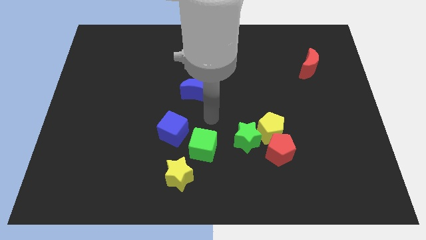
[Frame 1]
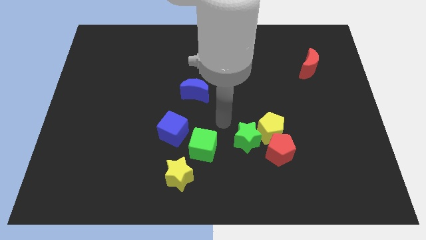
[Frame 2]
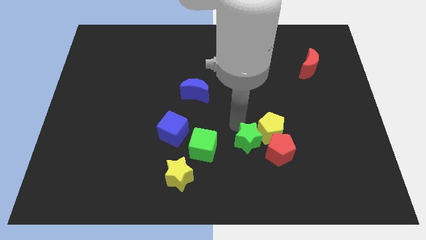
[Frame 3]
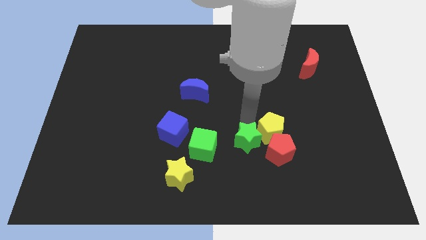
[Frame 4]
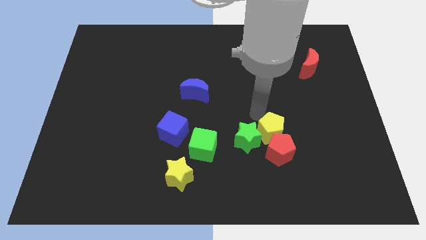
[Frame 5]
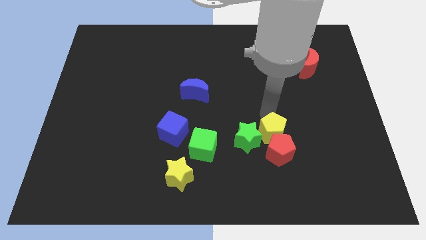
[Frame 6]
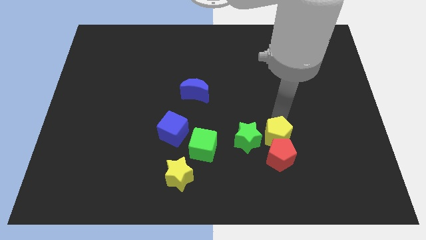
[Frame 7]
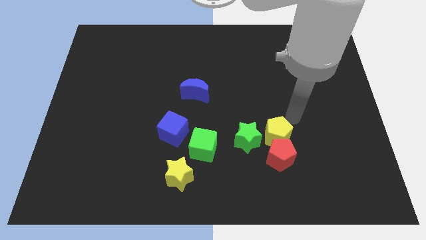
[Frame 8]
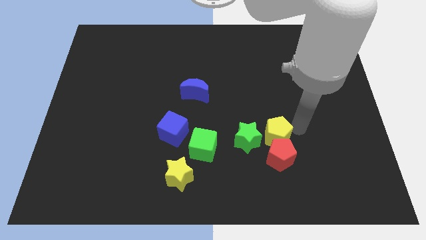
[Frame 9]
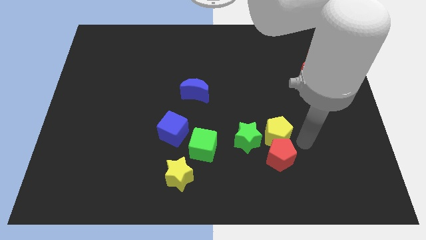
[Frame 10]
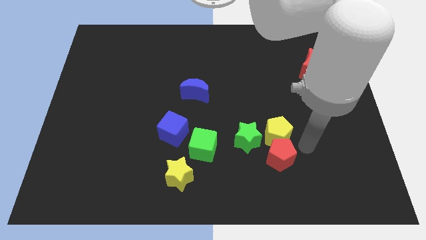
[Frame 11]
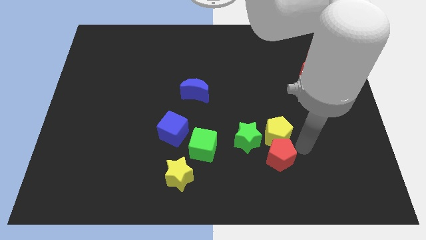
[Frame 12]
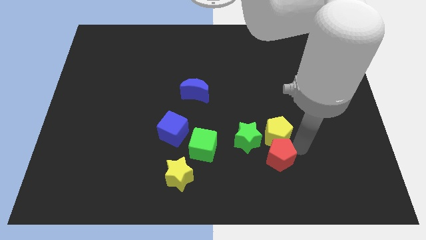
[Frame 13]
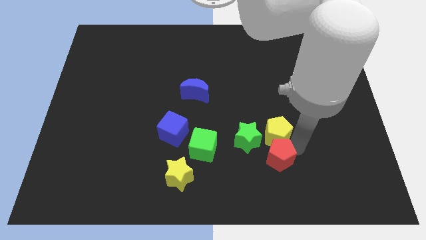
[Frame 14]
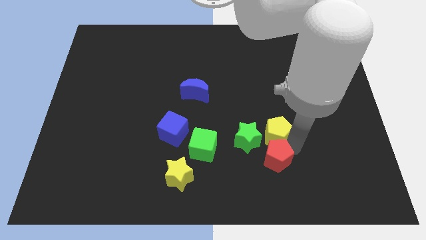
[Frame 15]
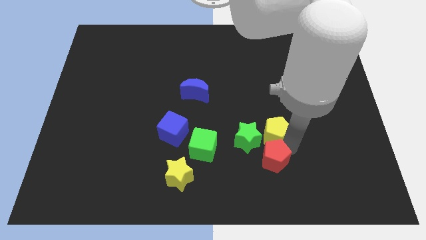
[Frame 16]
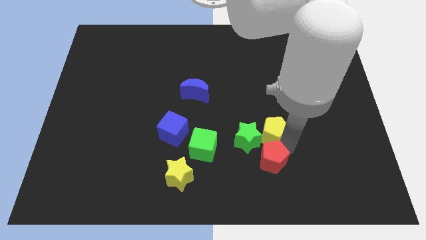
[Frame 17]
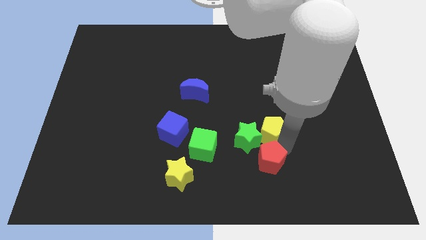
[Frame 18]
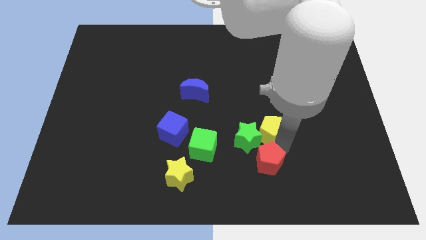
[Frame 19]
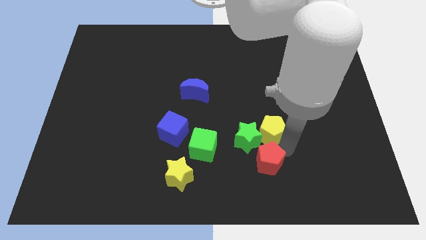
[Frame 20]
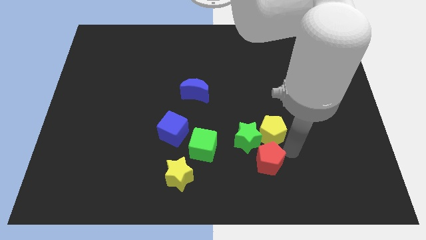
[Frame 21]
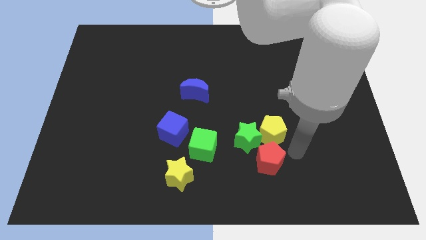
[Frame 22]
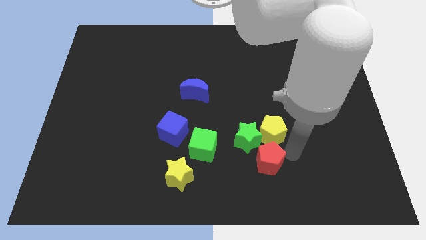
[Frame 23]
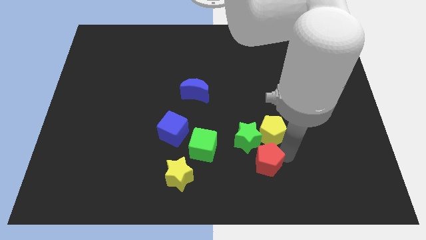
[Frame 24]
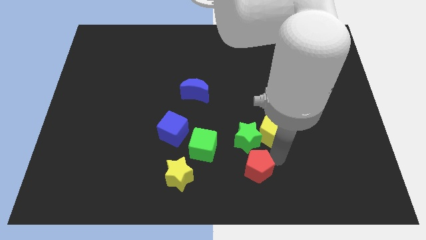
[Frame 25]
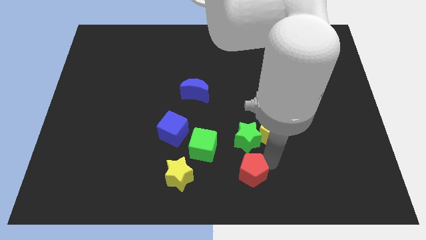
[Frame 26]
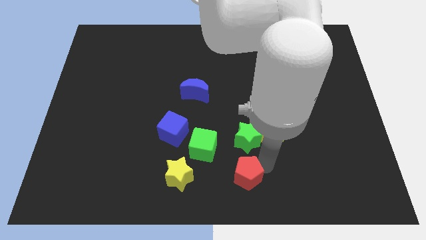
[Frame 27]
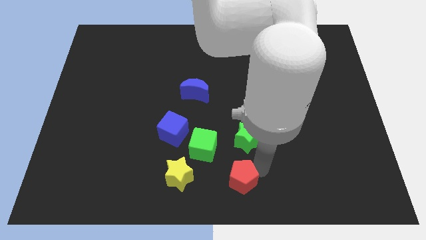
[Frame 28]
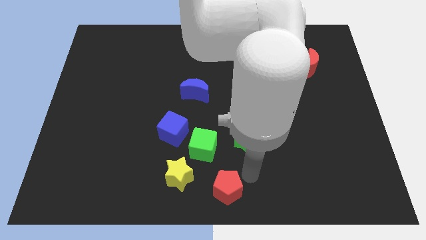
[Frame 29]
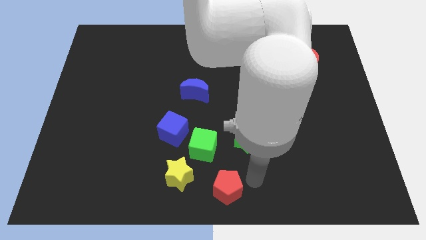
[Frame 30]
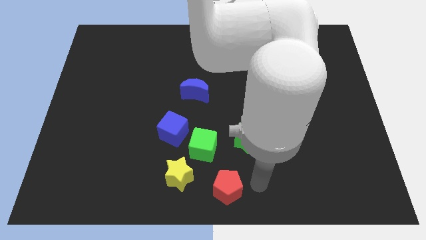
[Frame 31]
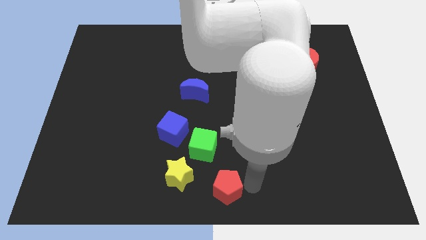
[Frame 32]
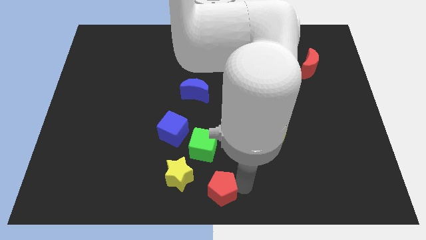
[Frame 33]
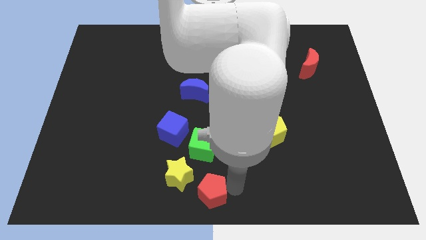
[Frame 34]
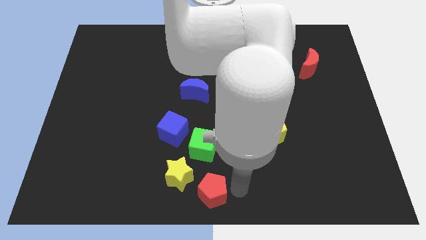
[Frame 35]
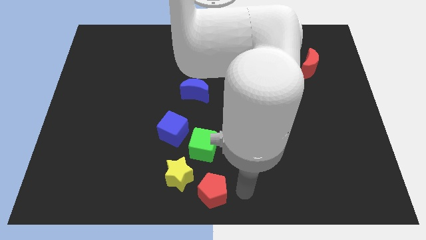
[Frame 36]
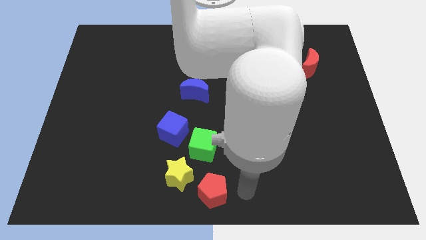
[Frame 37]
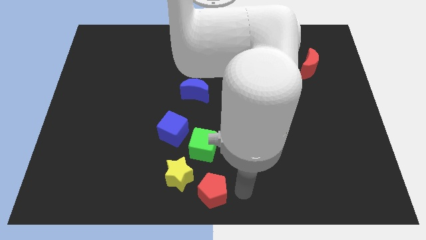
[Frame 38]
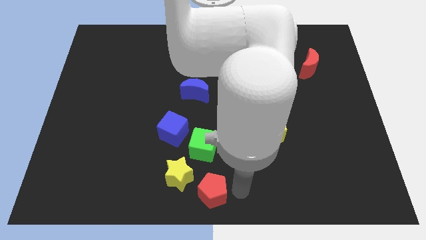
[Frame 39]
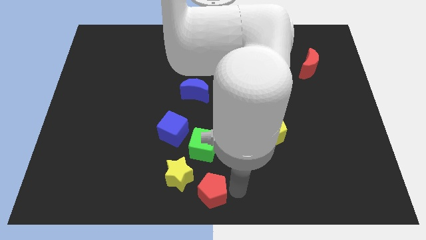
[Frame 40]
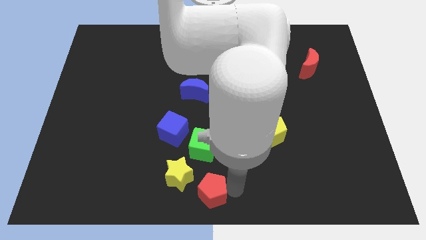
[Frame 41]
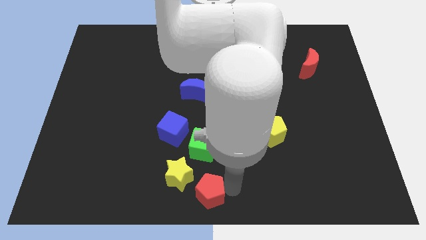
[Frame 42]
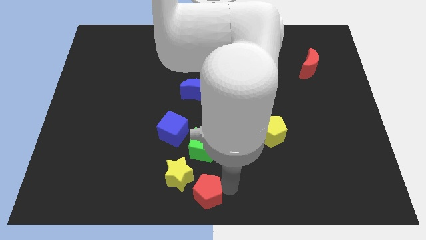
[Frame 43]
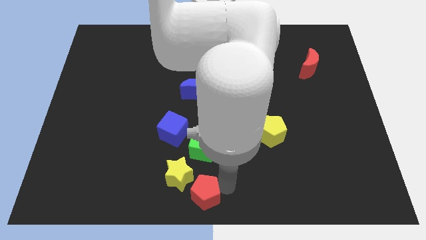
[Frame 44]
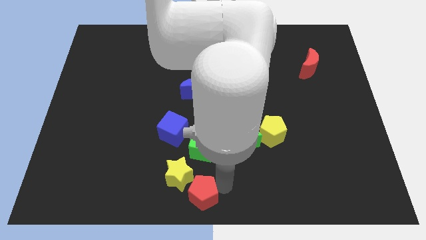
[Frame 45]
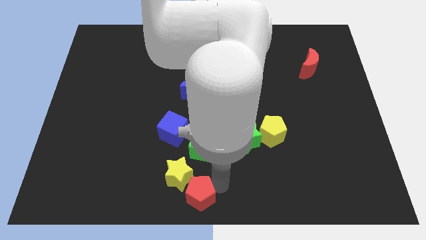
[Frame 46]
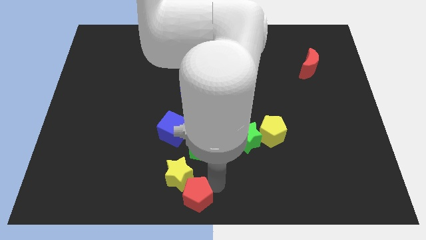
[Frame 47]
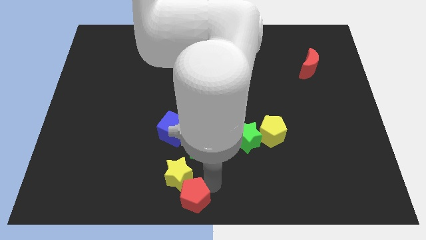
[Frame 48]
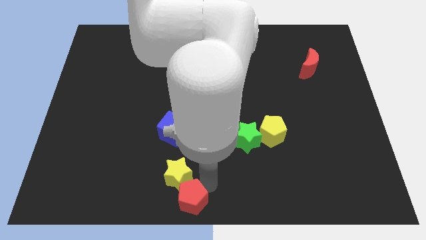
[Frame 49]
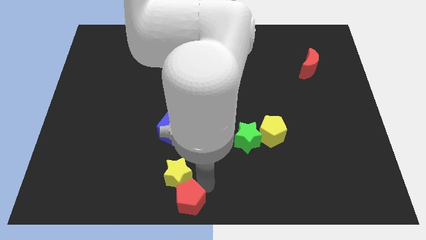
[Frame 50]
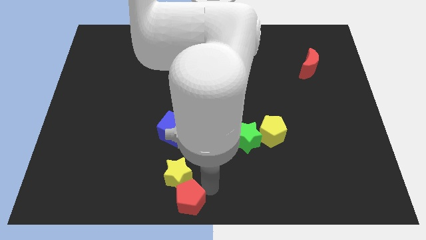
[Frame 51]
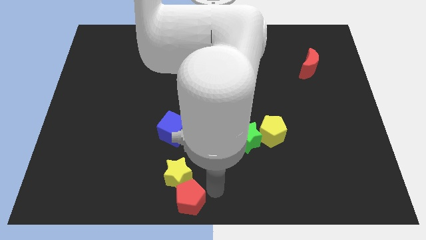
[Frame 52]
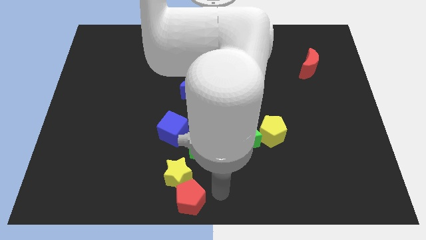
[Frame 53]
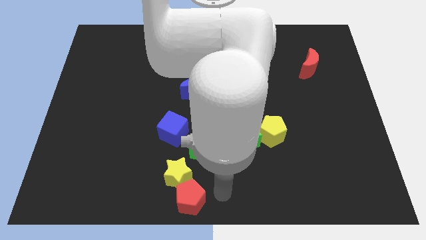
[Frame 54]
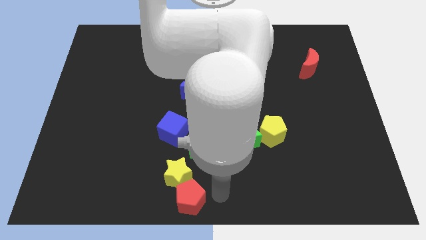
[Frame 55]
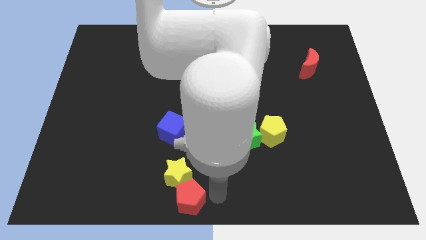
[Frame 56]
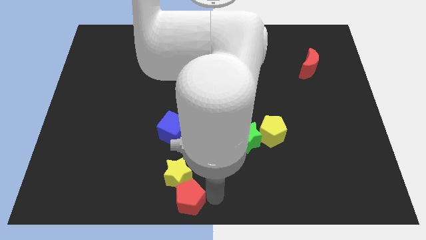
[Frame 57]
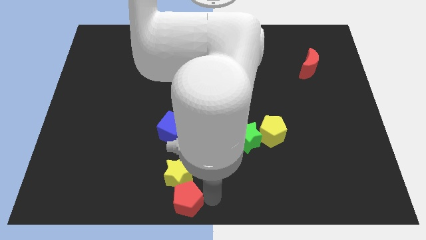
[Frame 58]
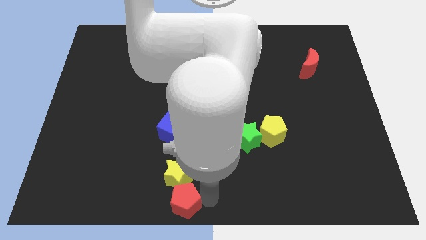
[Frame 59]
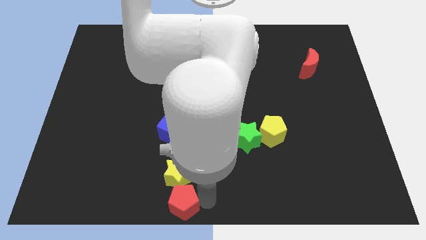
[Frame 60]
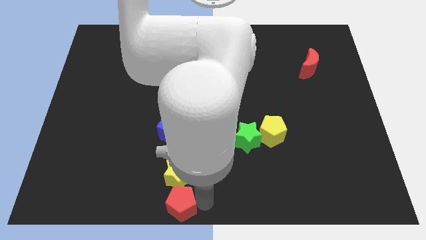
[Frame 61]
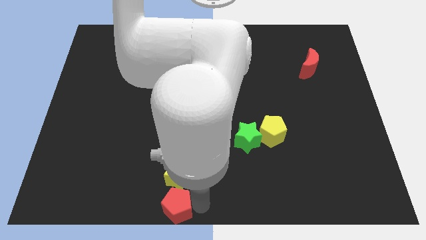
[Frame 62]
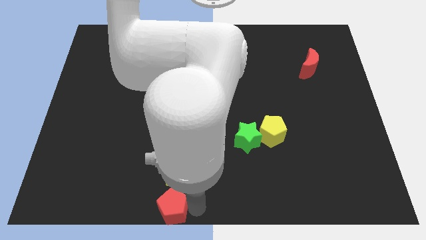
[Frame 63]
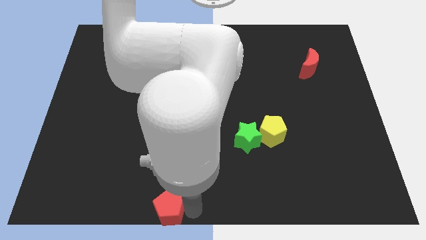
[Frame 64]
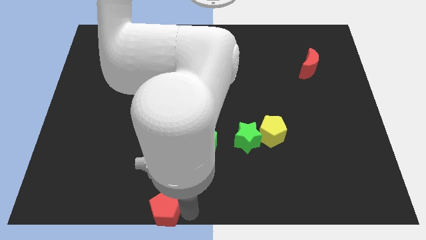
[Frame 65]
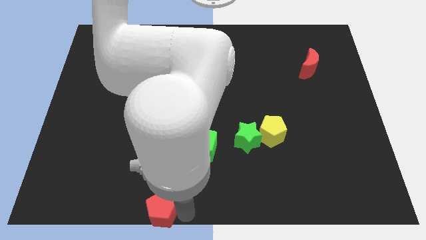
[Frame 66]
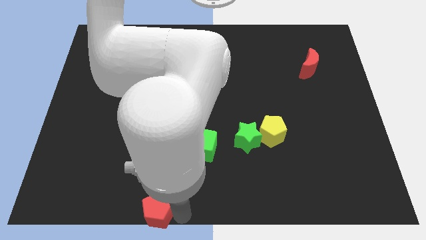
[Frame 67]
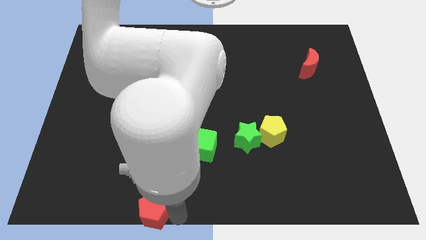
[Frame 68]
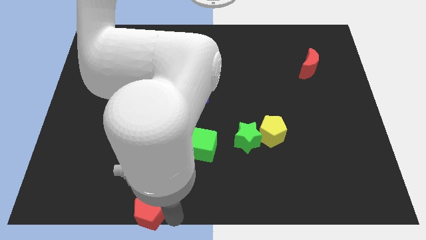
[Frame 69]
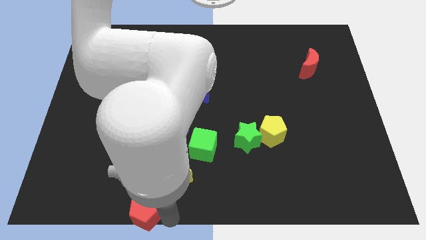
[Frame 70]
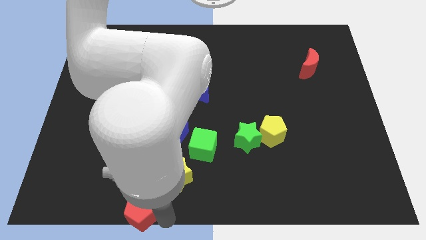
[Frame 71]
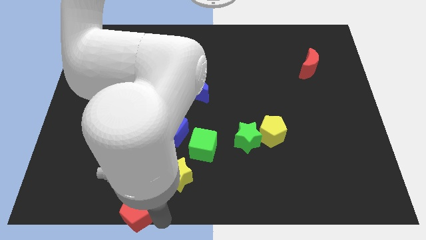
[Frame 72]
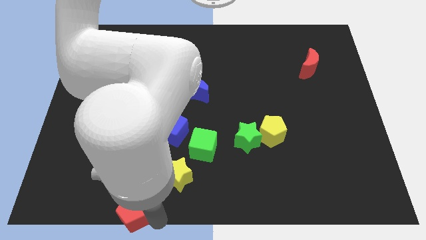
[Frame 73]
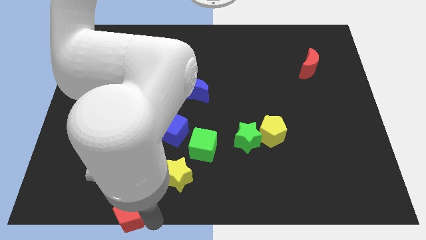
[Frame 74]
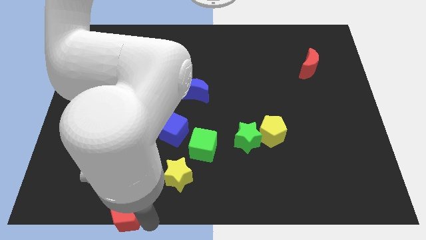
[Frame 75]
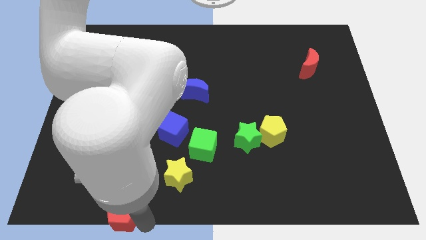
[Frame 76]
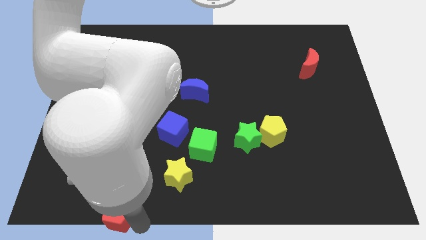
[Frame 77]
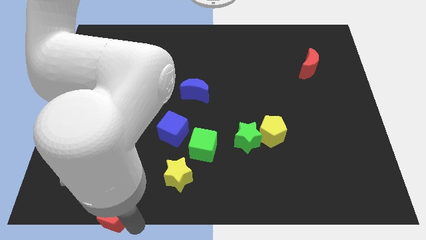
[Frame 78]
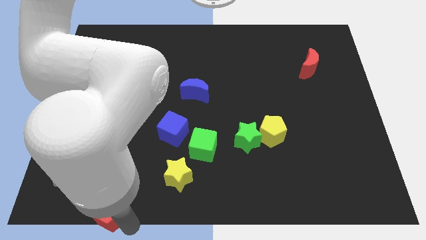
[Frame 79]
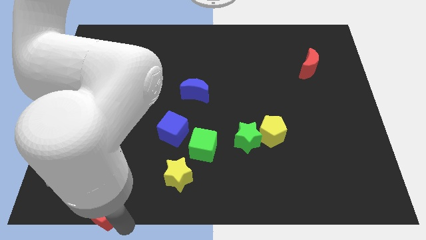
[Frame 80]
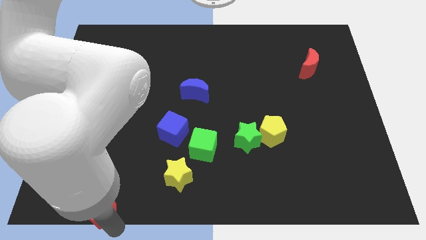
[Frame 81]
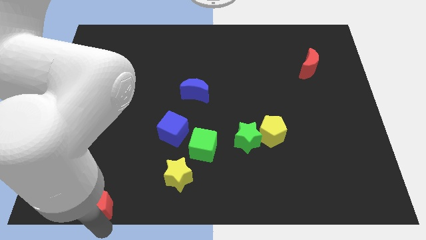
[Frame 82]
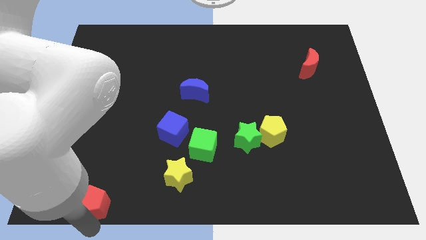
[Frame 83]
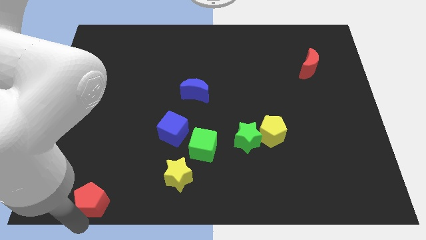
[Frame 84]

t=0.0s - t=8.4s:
push the red pentagon left
